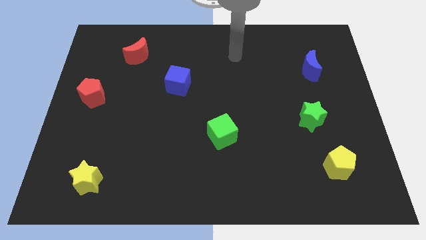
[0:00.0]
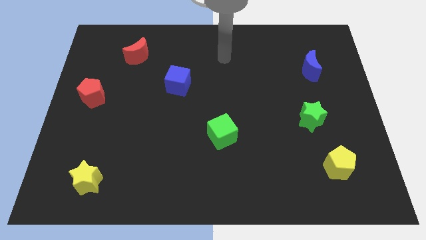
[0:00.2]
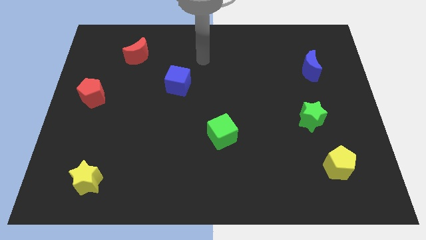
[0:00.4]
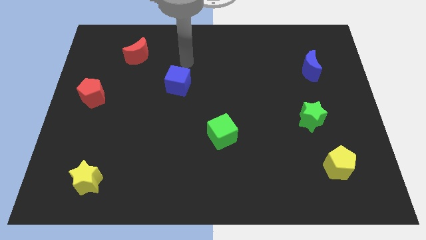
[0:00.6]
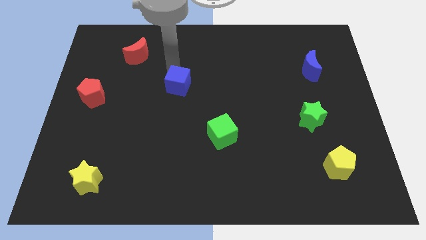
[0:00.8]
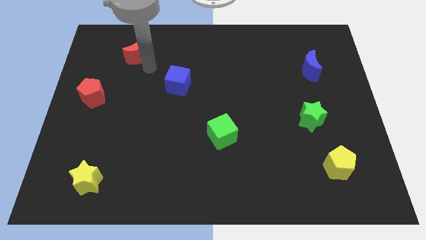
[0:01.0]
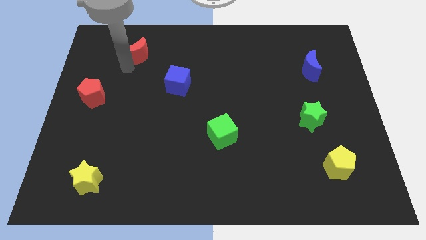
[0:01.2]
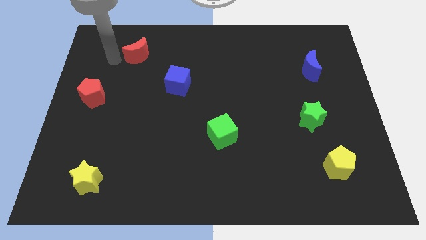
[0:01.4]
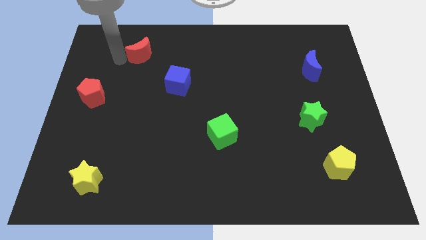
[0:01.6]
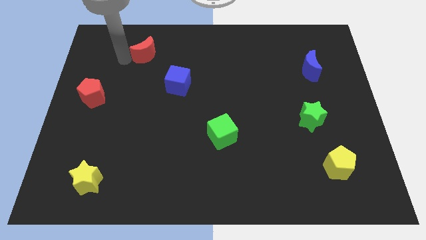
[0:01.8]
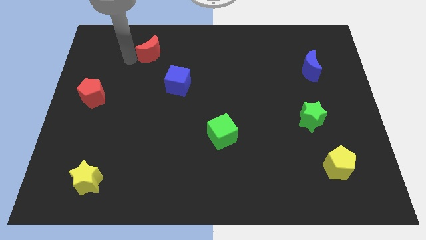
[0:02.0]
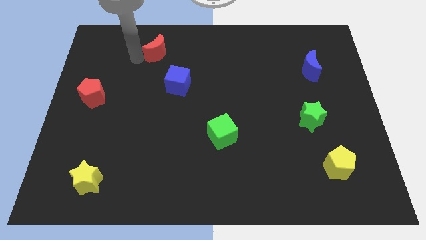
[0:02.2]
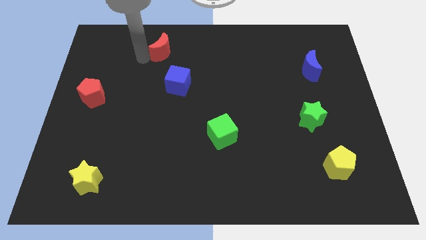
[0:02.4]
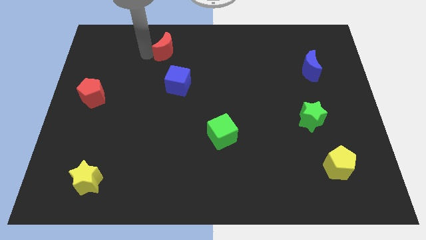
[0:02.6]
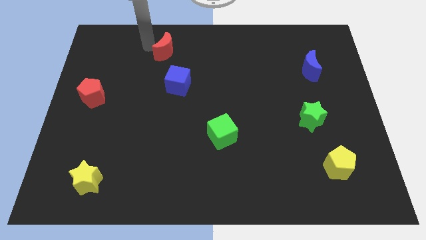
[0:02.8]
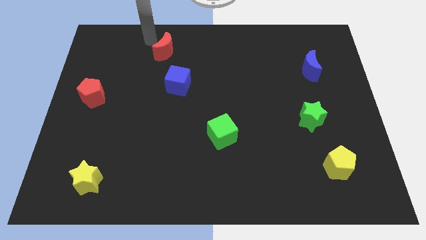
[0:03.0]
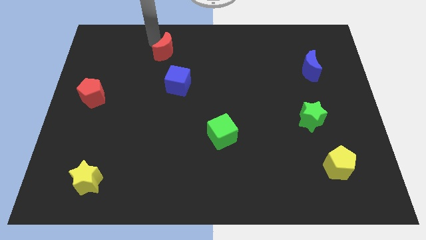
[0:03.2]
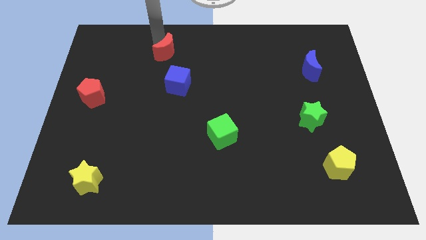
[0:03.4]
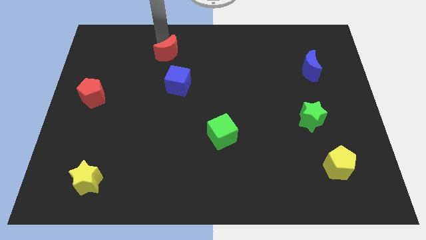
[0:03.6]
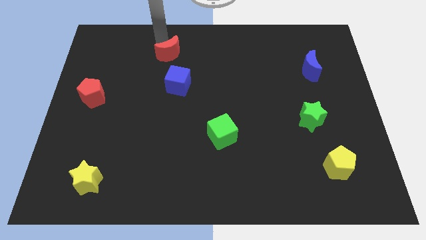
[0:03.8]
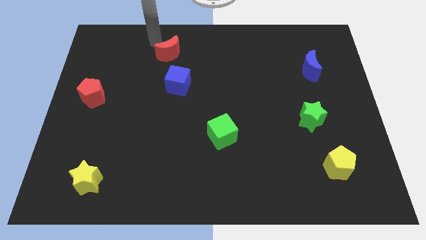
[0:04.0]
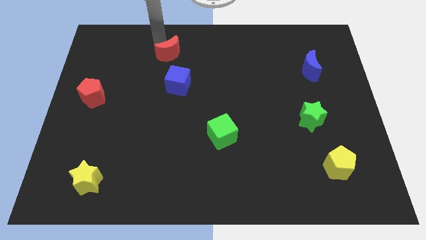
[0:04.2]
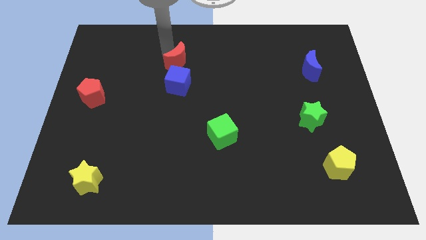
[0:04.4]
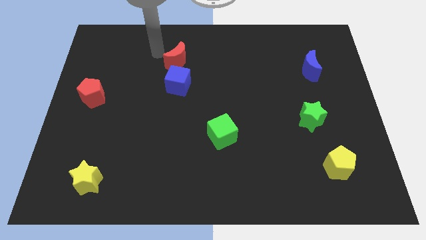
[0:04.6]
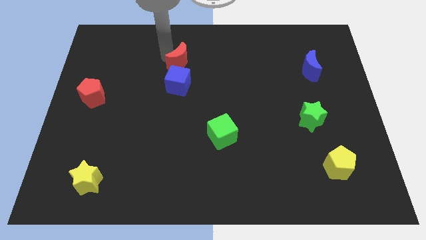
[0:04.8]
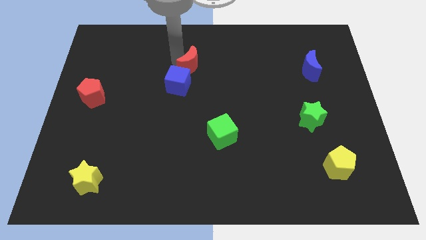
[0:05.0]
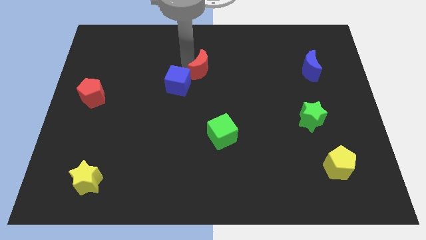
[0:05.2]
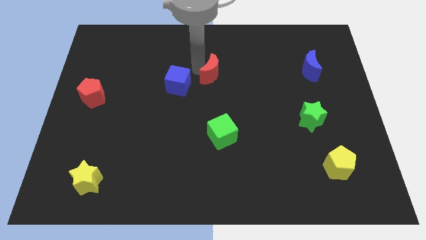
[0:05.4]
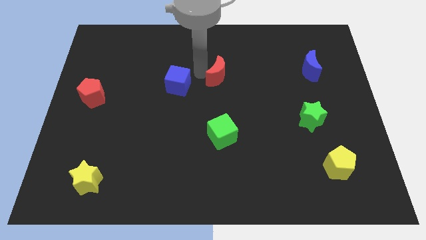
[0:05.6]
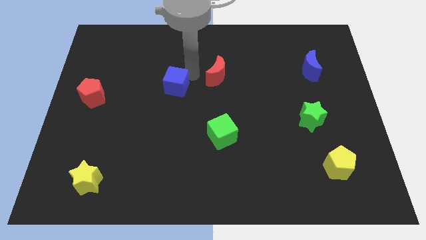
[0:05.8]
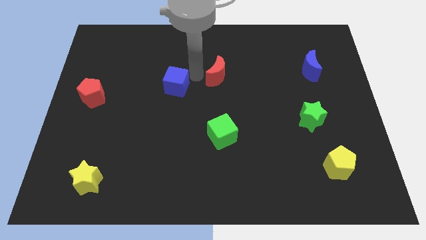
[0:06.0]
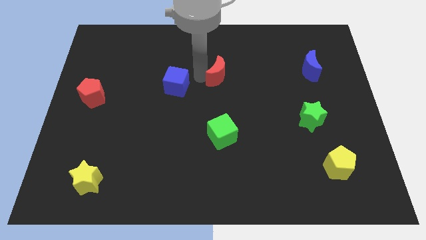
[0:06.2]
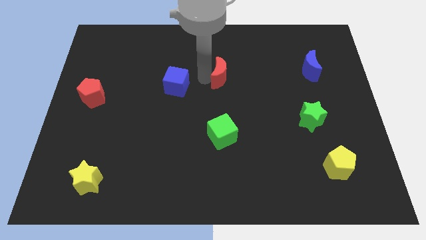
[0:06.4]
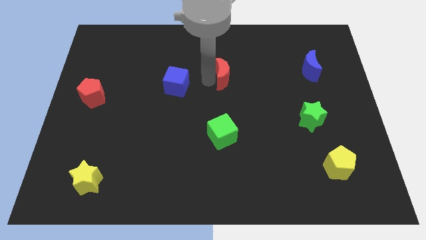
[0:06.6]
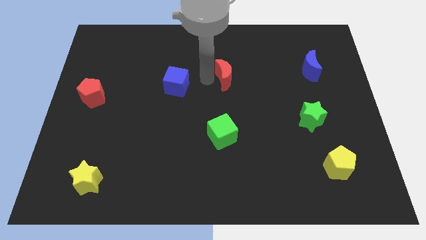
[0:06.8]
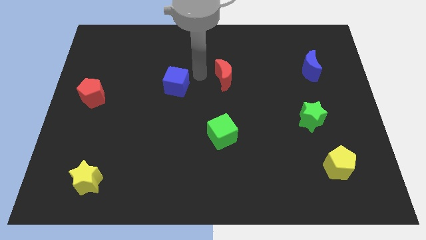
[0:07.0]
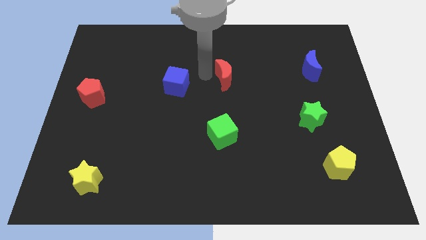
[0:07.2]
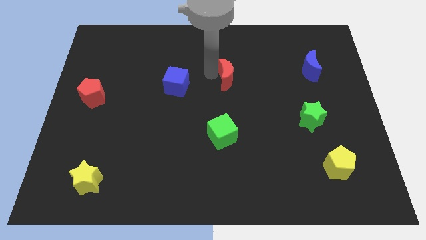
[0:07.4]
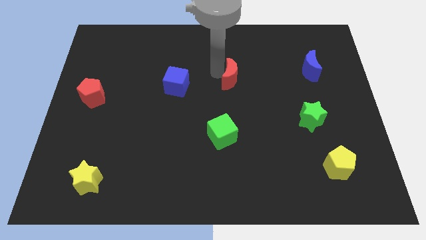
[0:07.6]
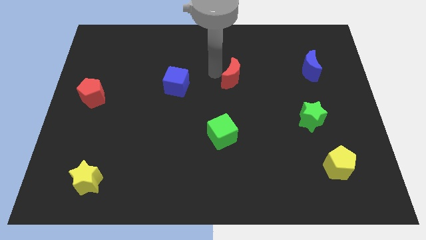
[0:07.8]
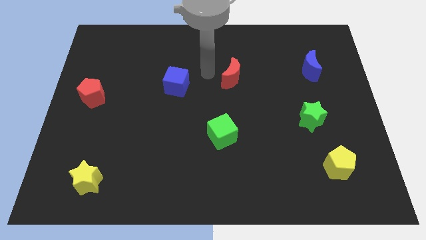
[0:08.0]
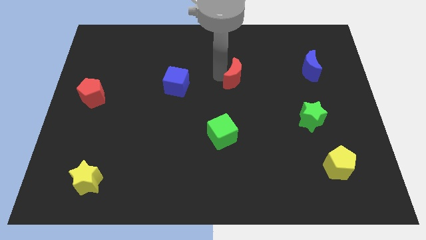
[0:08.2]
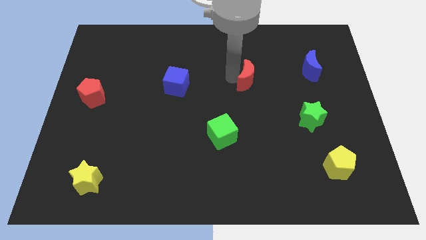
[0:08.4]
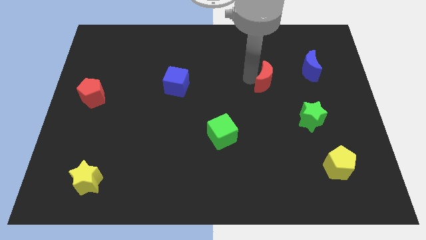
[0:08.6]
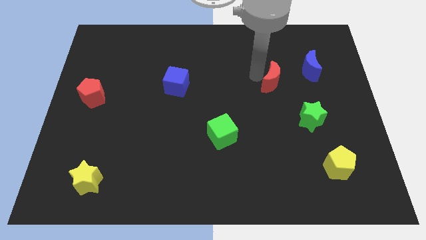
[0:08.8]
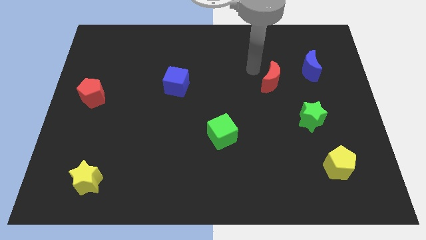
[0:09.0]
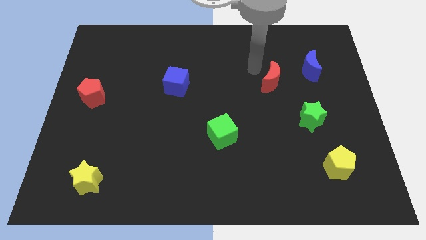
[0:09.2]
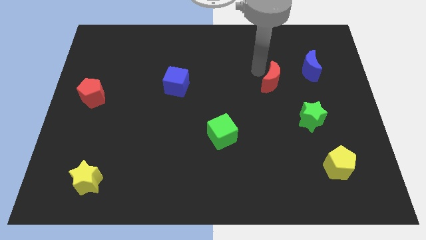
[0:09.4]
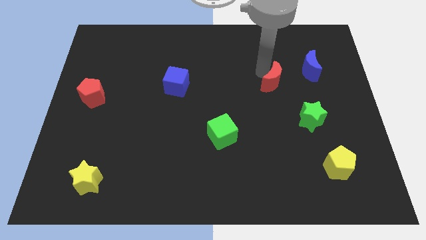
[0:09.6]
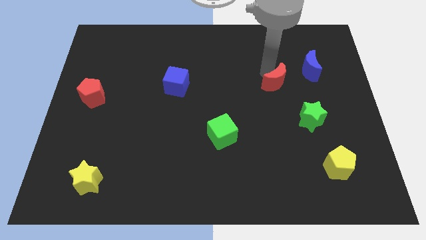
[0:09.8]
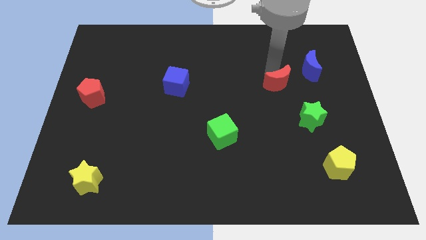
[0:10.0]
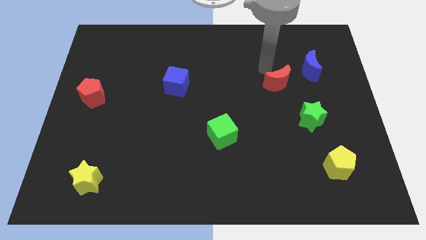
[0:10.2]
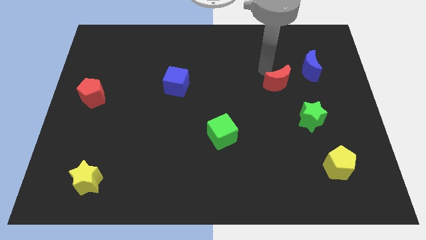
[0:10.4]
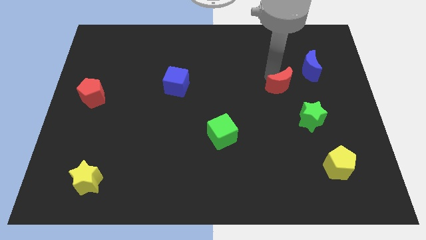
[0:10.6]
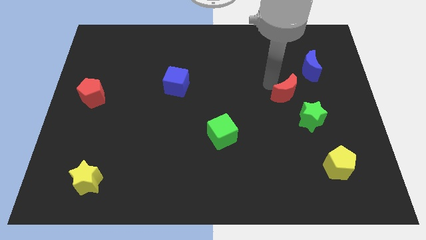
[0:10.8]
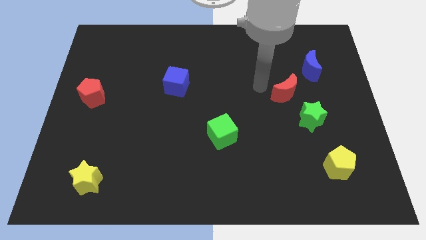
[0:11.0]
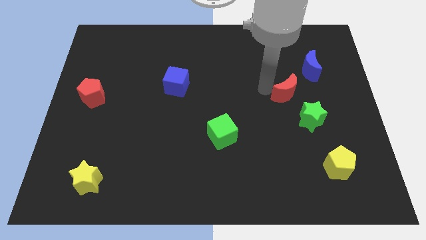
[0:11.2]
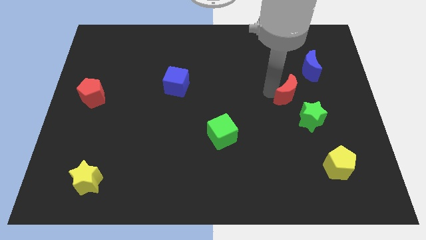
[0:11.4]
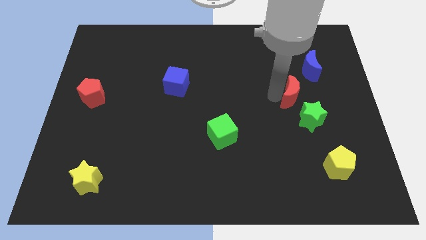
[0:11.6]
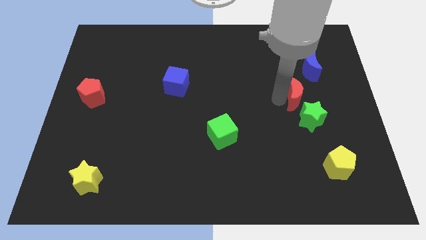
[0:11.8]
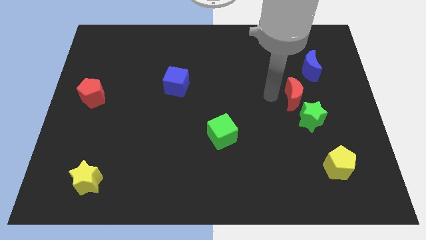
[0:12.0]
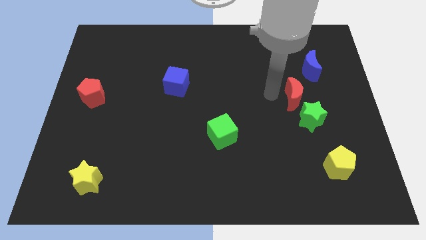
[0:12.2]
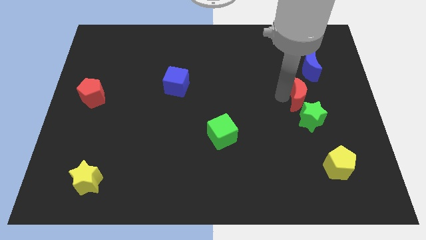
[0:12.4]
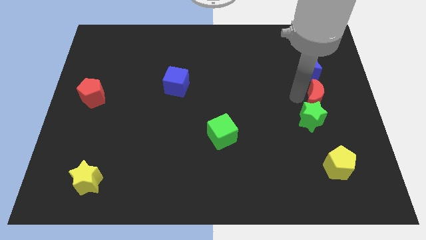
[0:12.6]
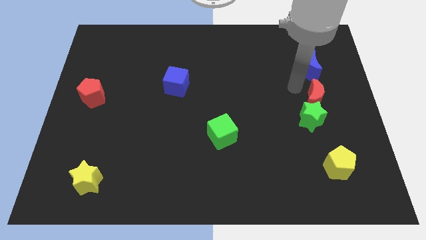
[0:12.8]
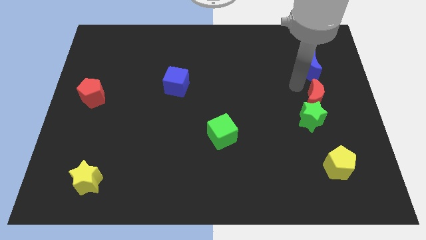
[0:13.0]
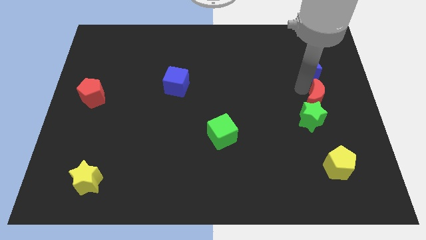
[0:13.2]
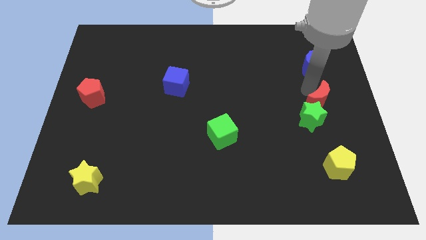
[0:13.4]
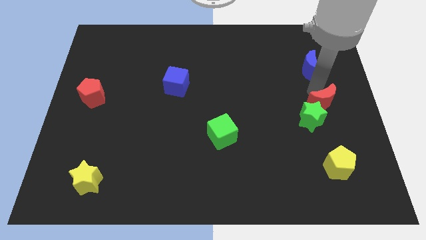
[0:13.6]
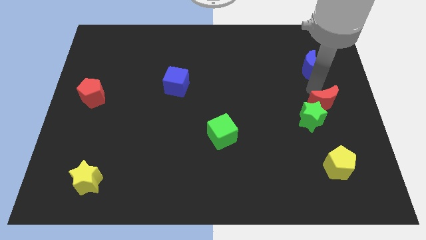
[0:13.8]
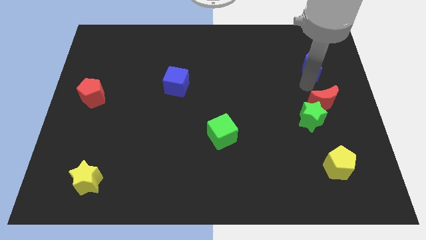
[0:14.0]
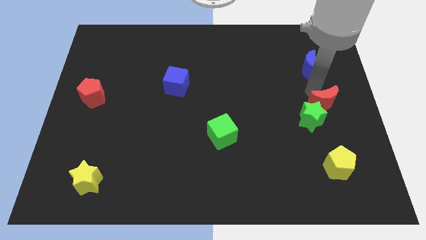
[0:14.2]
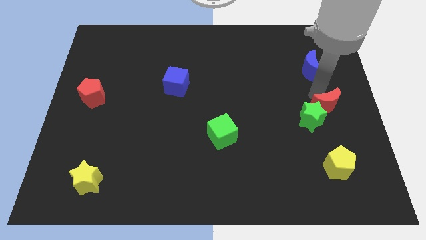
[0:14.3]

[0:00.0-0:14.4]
slide the red moon to the top side of the yellow pentagon
